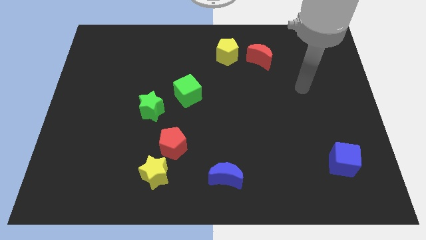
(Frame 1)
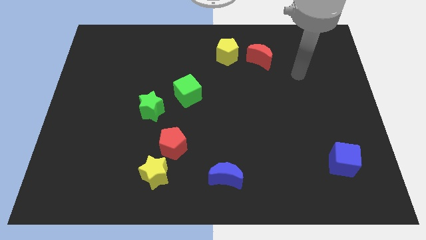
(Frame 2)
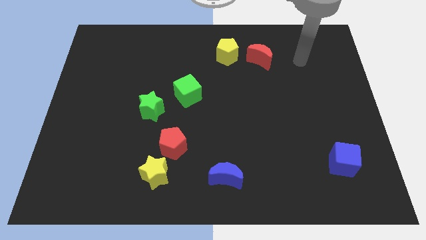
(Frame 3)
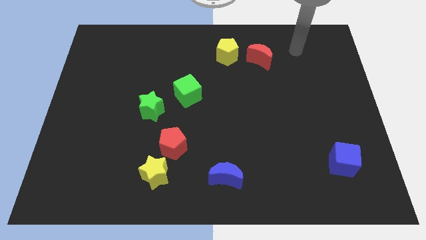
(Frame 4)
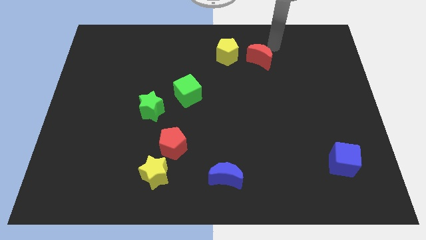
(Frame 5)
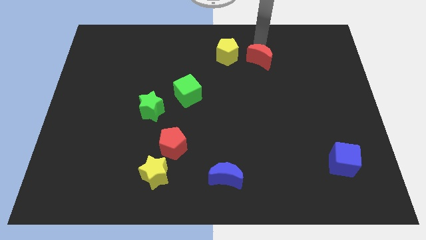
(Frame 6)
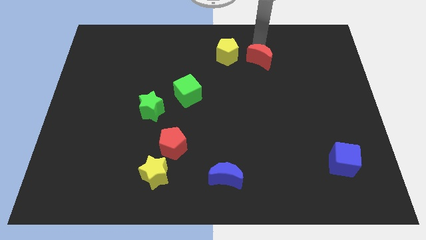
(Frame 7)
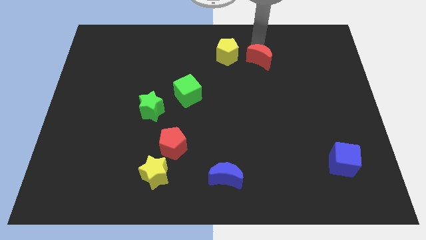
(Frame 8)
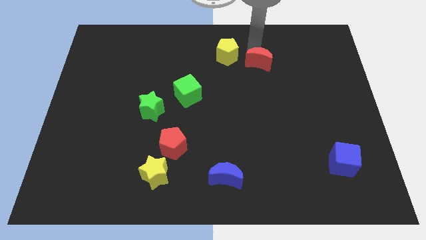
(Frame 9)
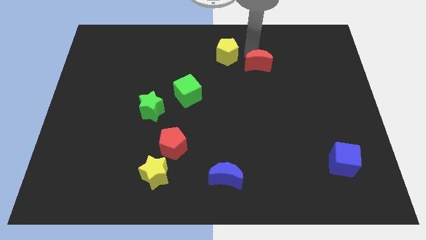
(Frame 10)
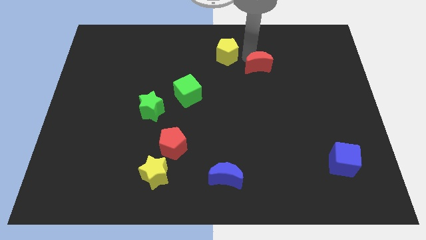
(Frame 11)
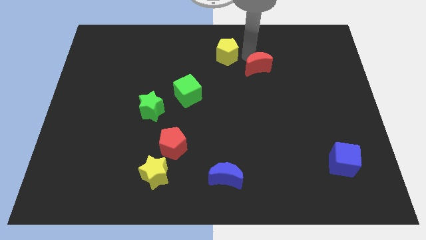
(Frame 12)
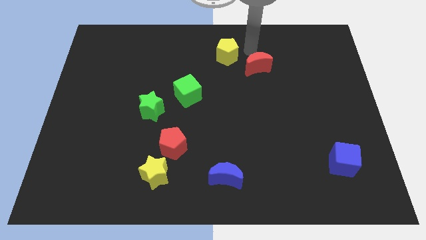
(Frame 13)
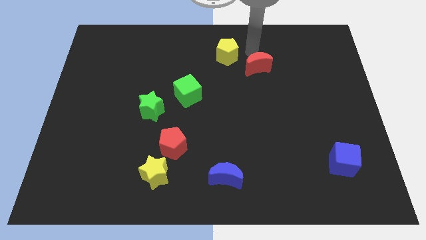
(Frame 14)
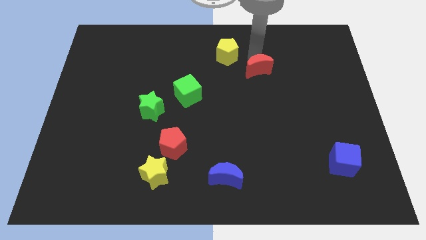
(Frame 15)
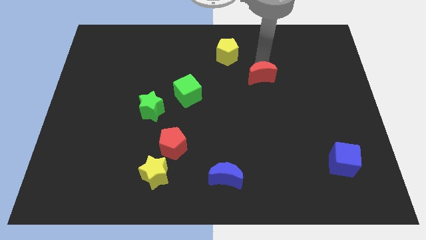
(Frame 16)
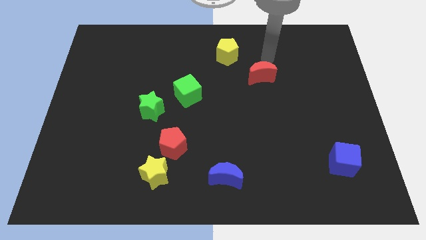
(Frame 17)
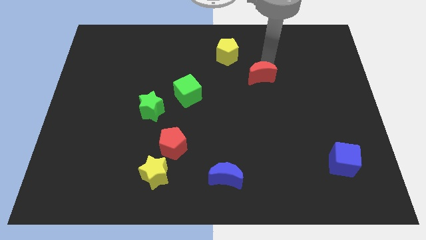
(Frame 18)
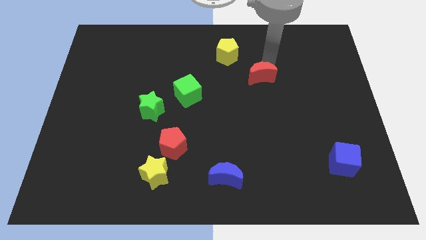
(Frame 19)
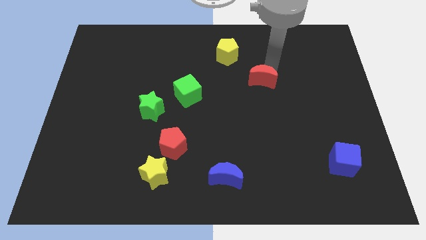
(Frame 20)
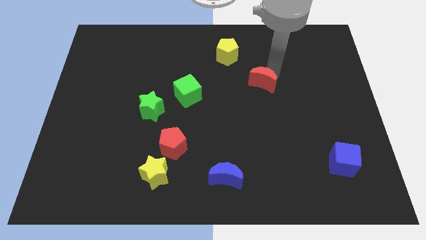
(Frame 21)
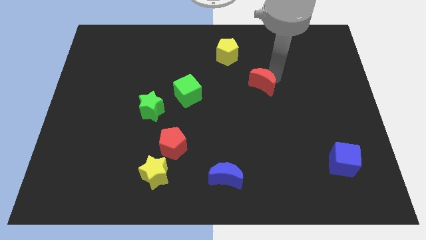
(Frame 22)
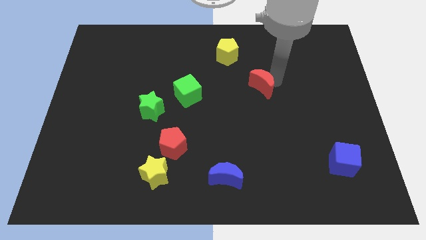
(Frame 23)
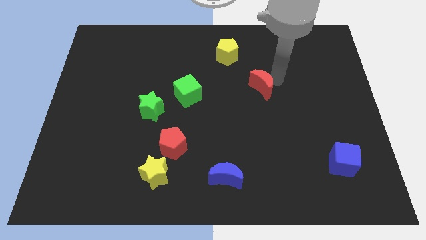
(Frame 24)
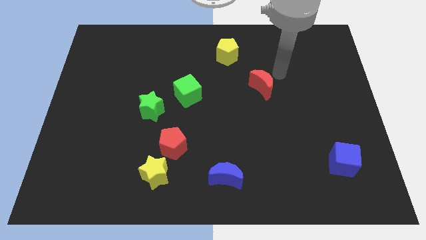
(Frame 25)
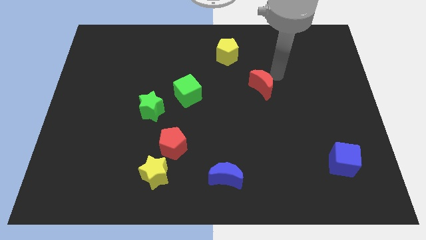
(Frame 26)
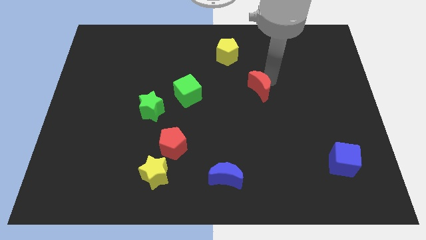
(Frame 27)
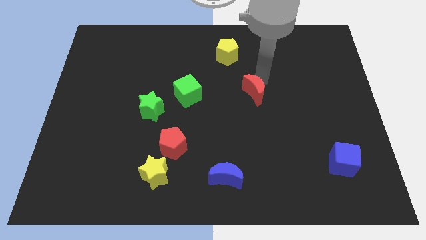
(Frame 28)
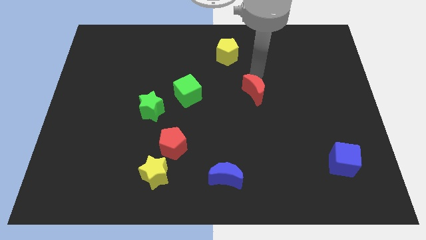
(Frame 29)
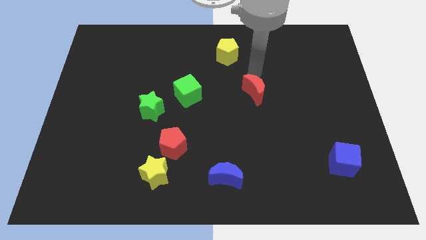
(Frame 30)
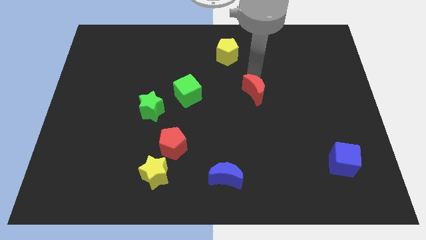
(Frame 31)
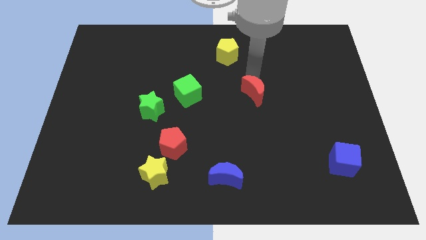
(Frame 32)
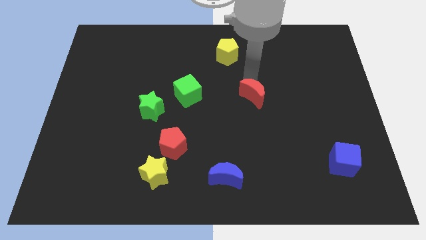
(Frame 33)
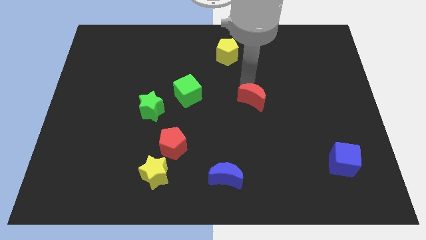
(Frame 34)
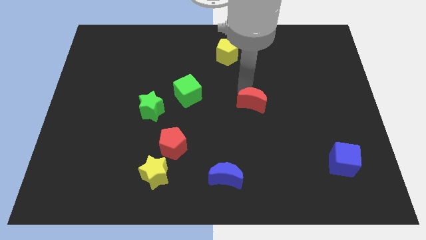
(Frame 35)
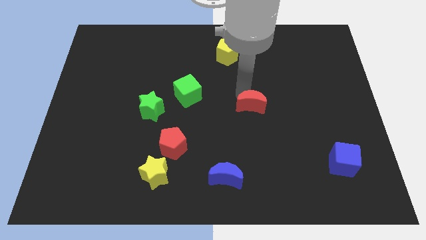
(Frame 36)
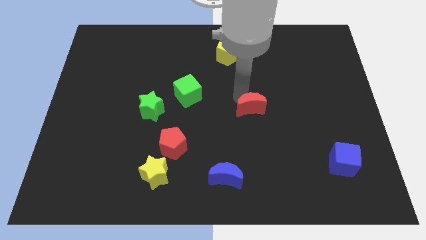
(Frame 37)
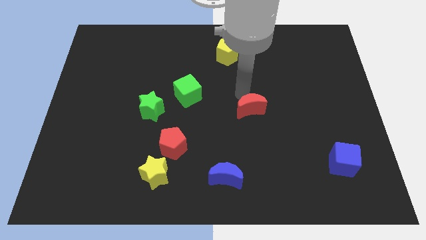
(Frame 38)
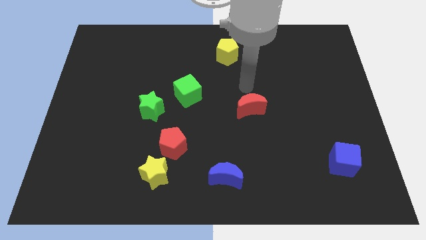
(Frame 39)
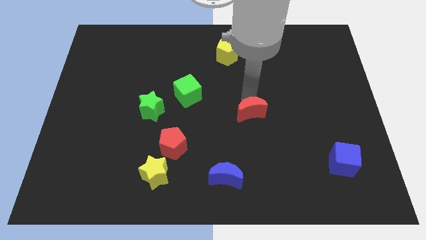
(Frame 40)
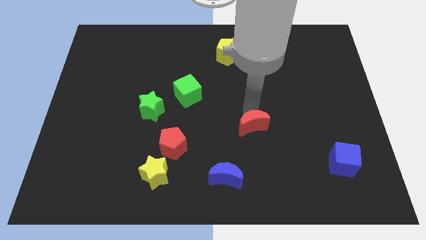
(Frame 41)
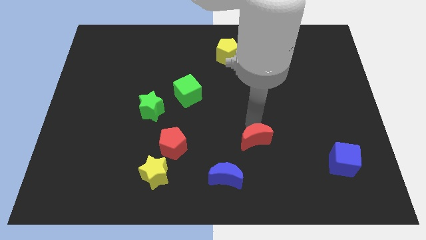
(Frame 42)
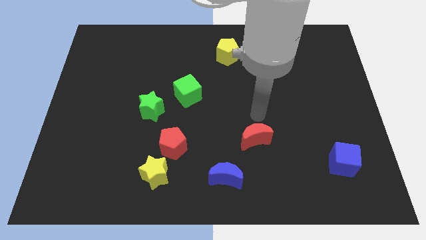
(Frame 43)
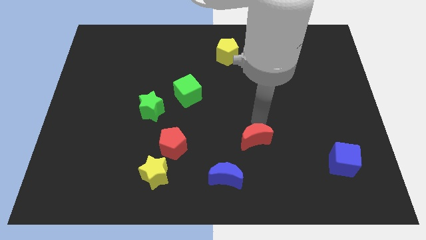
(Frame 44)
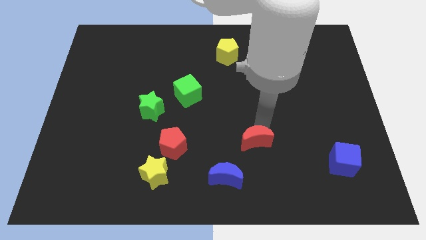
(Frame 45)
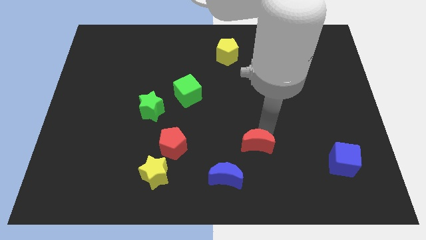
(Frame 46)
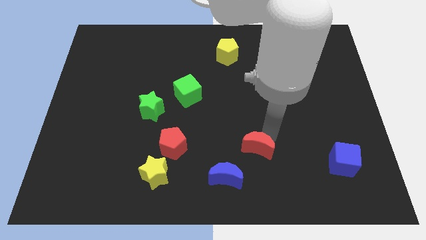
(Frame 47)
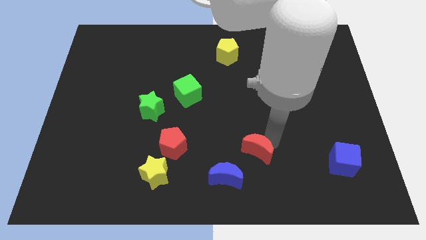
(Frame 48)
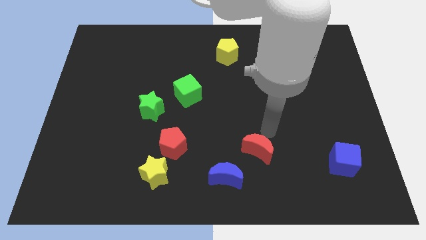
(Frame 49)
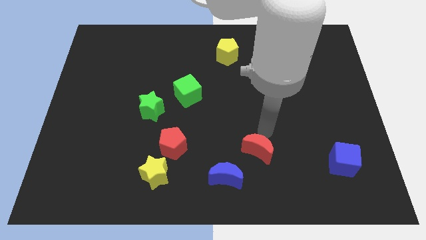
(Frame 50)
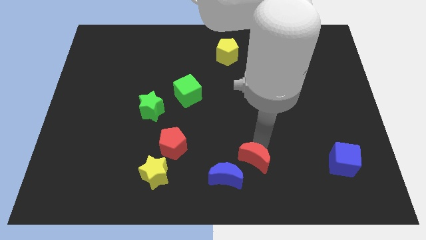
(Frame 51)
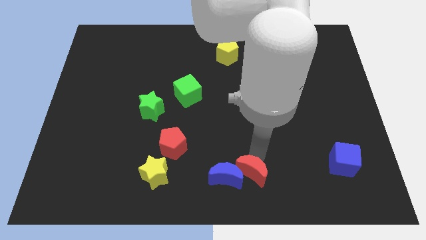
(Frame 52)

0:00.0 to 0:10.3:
slide the red moon to the bottom
